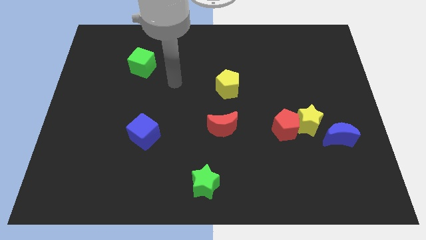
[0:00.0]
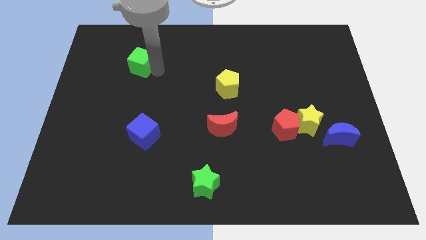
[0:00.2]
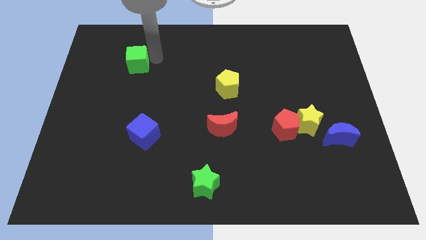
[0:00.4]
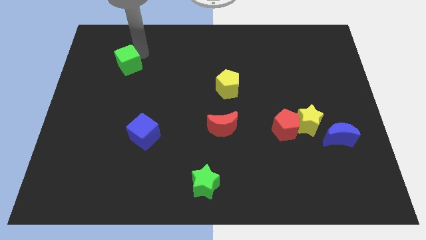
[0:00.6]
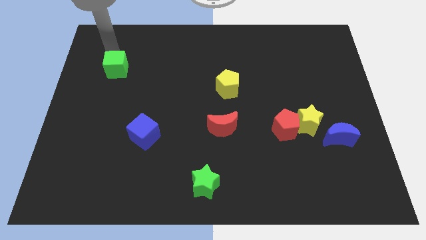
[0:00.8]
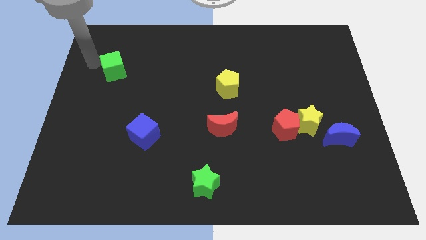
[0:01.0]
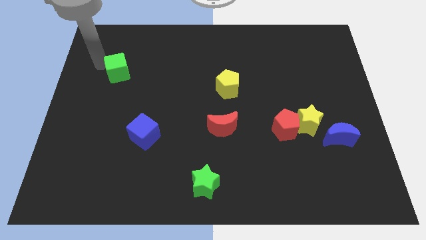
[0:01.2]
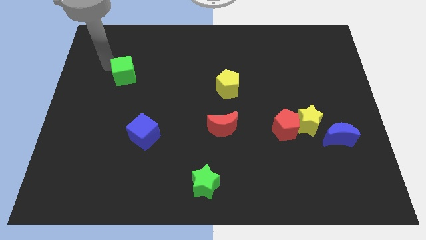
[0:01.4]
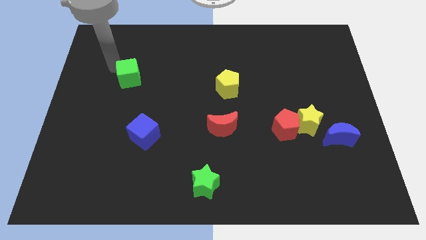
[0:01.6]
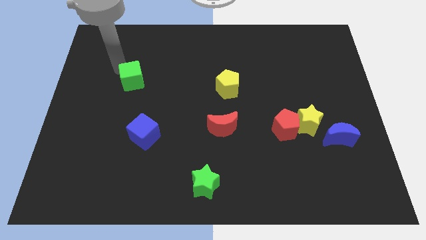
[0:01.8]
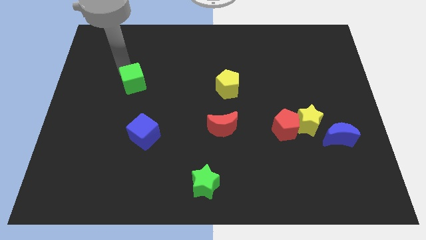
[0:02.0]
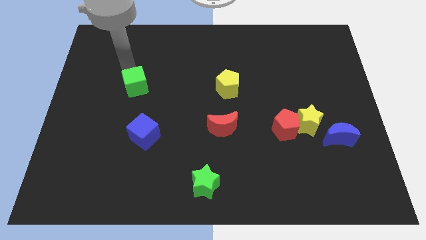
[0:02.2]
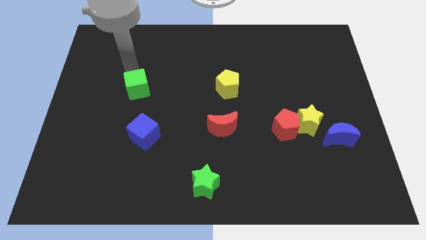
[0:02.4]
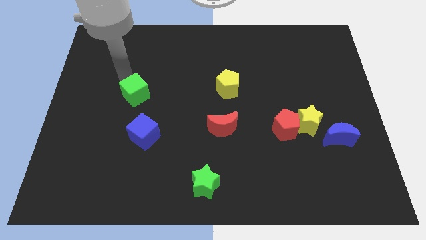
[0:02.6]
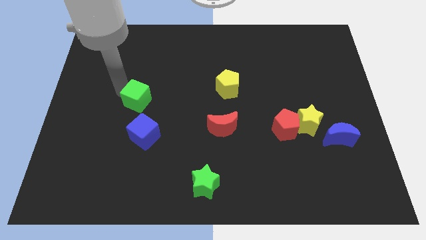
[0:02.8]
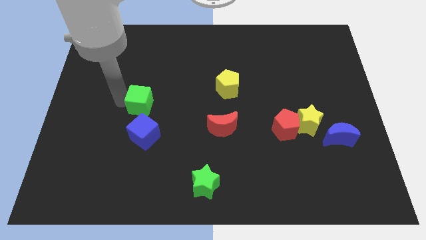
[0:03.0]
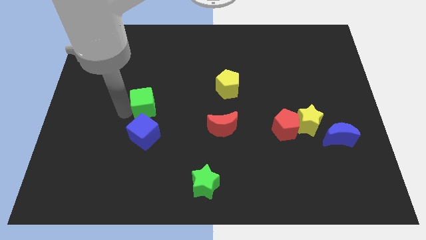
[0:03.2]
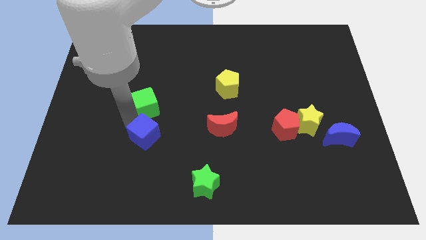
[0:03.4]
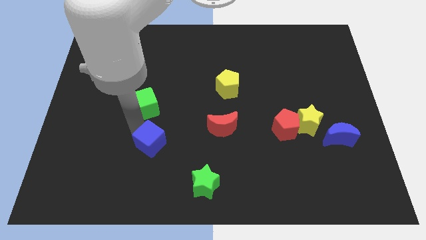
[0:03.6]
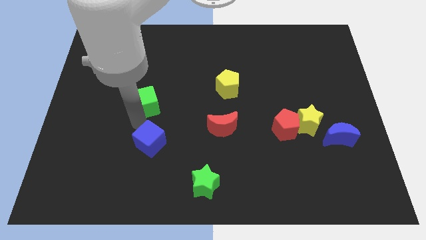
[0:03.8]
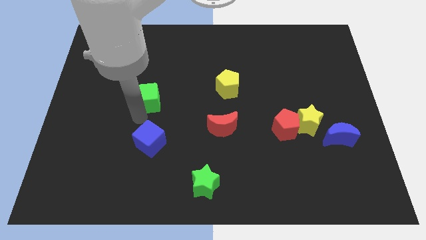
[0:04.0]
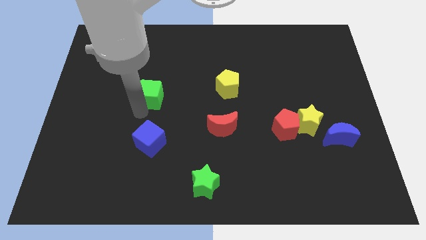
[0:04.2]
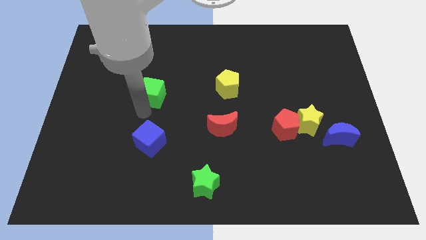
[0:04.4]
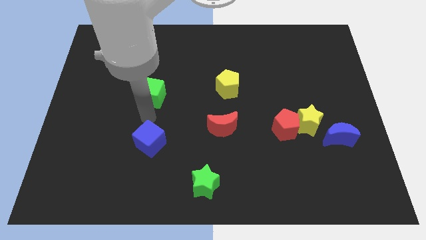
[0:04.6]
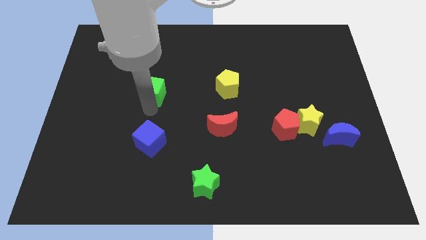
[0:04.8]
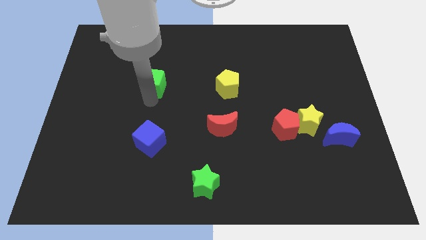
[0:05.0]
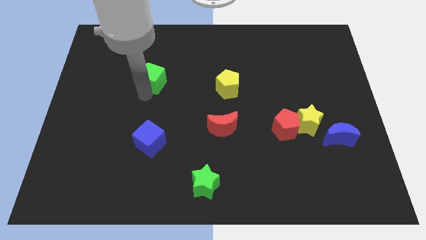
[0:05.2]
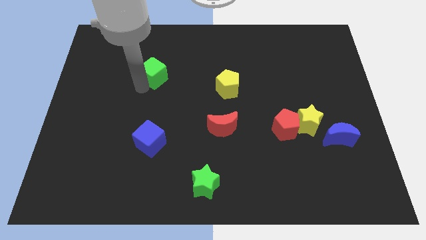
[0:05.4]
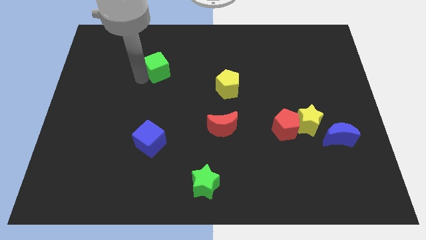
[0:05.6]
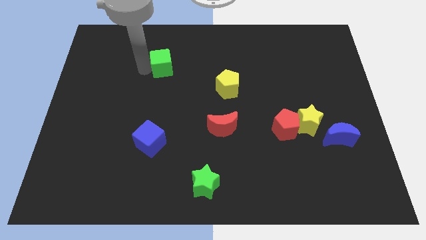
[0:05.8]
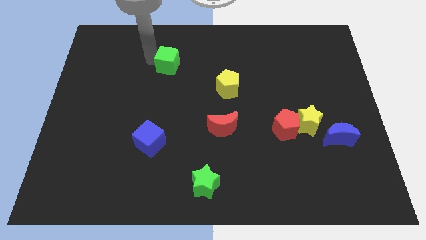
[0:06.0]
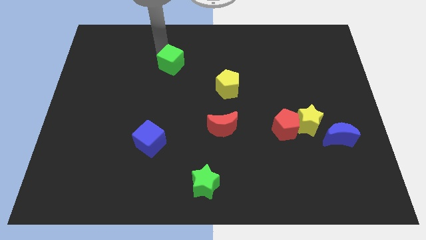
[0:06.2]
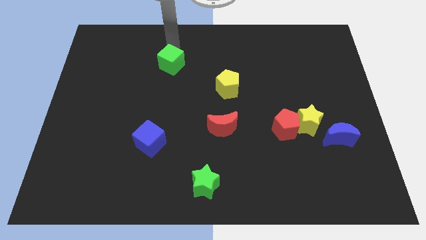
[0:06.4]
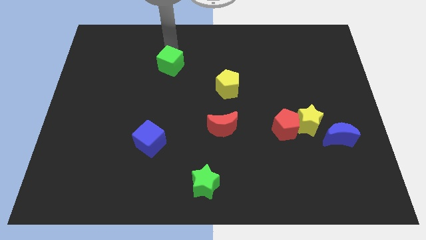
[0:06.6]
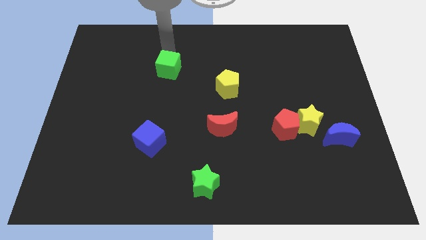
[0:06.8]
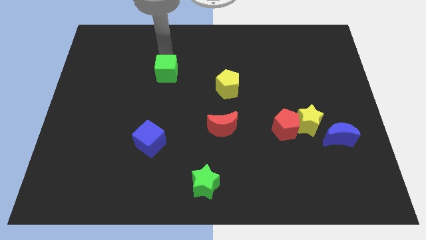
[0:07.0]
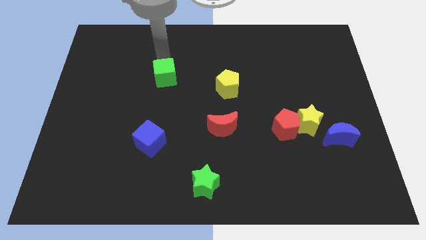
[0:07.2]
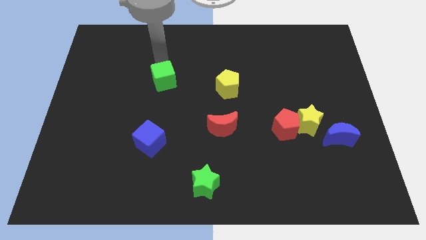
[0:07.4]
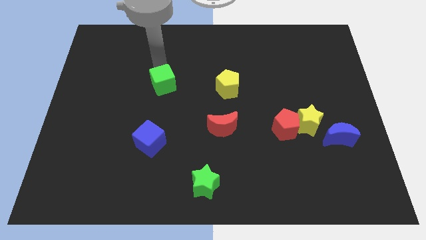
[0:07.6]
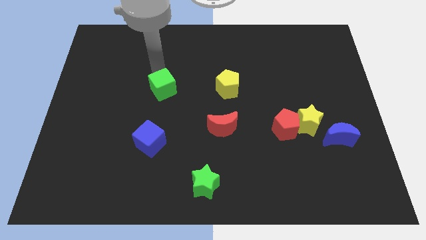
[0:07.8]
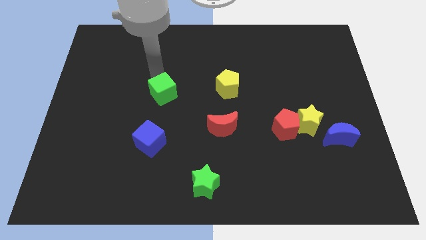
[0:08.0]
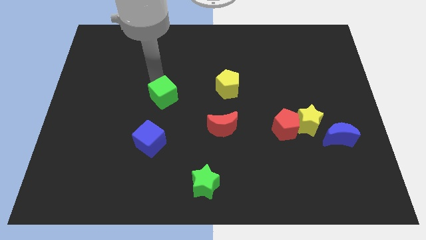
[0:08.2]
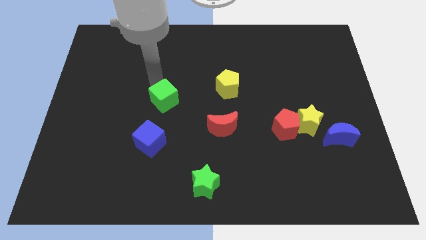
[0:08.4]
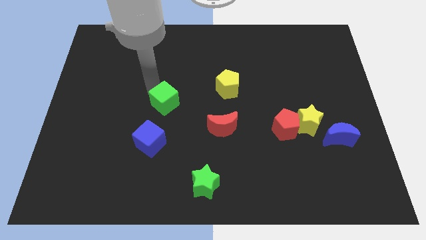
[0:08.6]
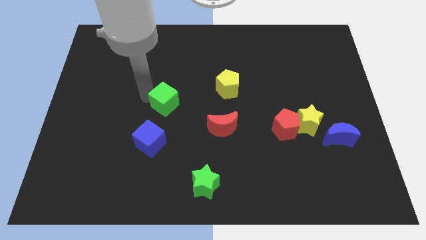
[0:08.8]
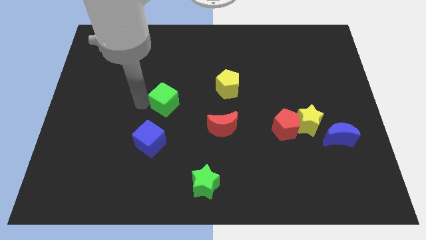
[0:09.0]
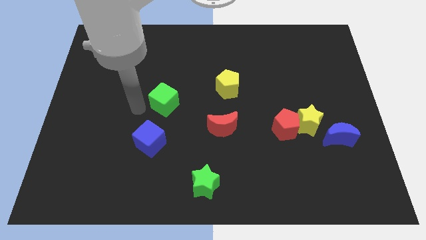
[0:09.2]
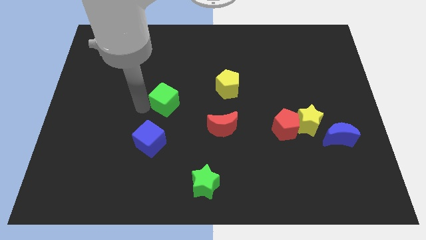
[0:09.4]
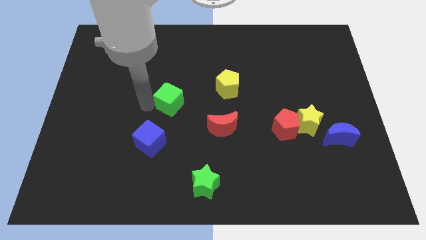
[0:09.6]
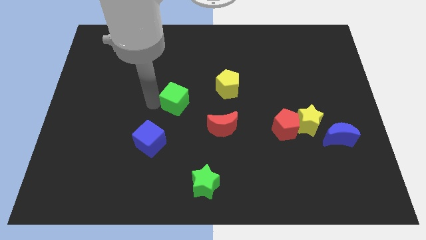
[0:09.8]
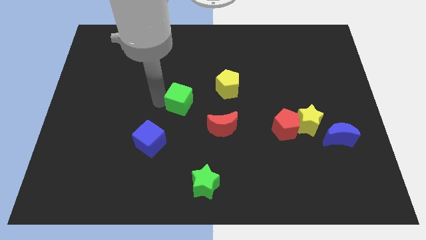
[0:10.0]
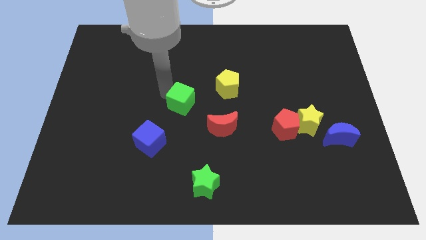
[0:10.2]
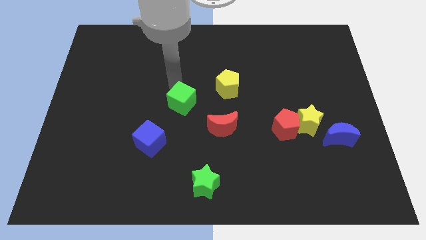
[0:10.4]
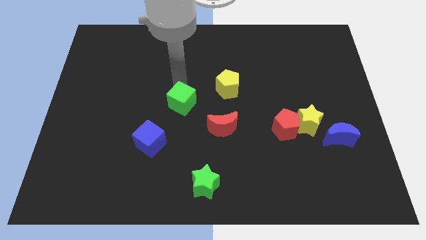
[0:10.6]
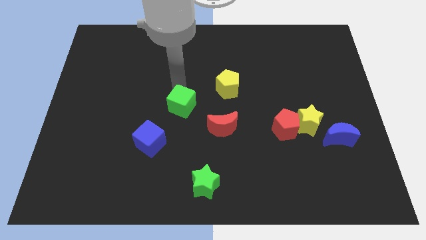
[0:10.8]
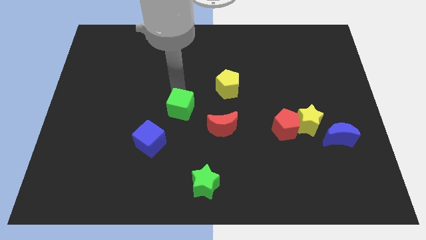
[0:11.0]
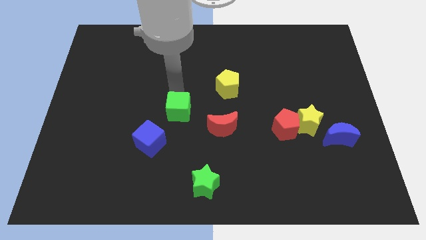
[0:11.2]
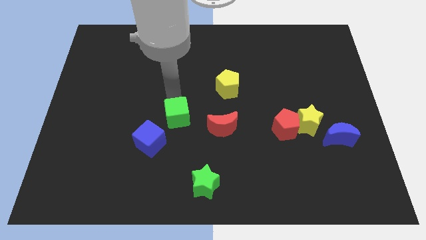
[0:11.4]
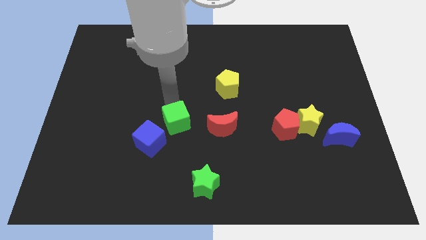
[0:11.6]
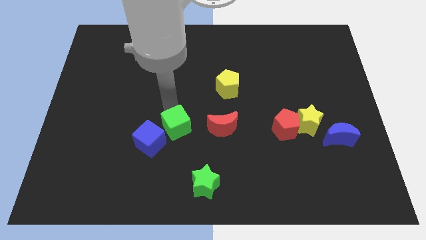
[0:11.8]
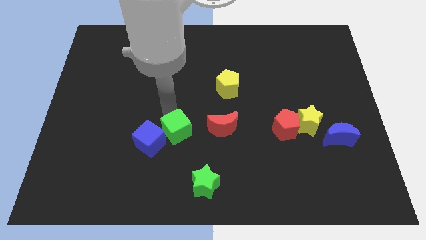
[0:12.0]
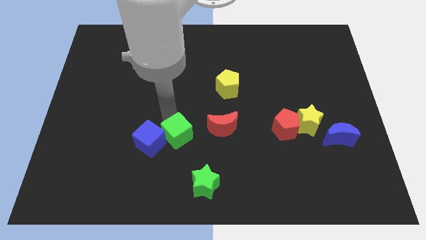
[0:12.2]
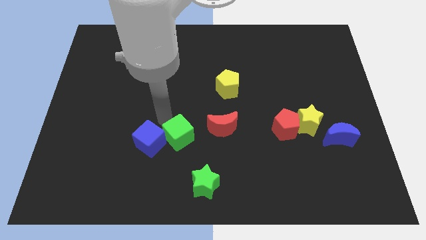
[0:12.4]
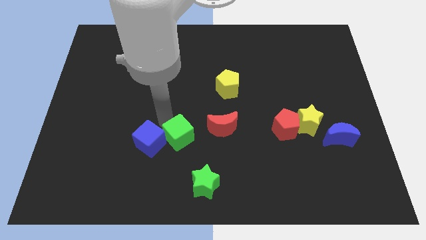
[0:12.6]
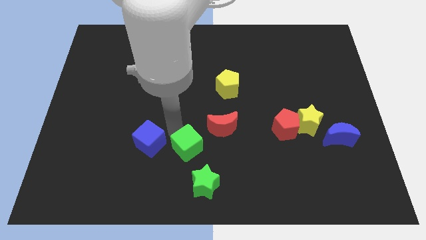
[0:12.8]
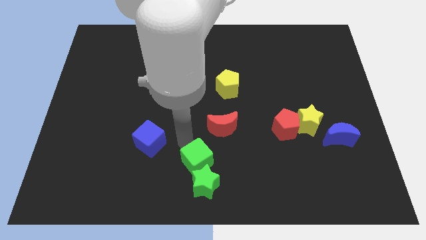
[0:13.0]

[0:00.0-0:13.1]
push the green cube towards the green star

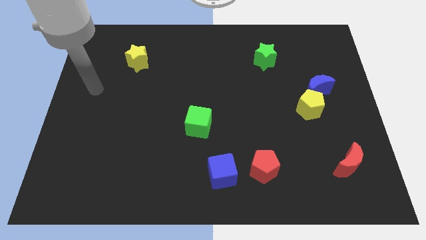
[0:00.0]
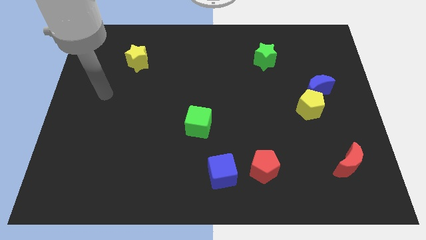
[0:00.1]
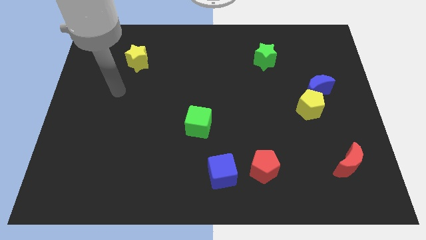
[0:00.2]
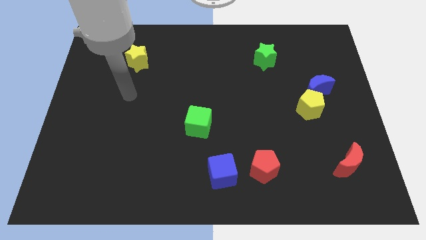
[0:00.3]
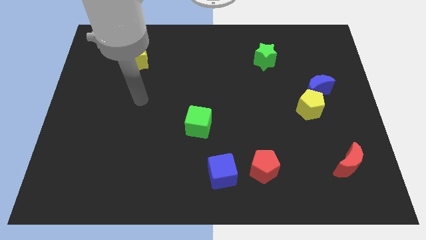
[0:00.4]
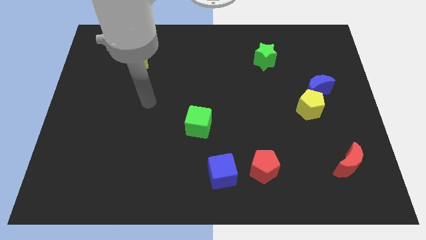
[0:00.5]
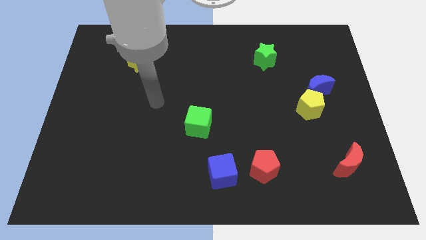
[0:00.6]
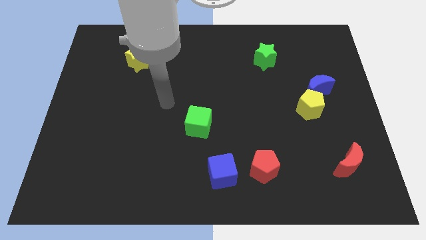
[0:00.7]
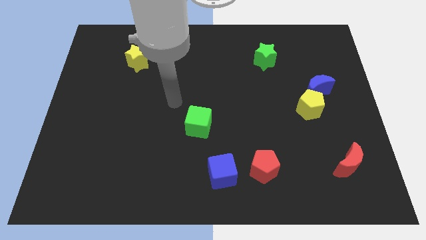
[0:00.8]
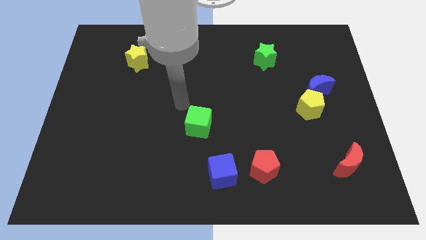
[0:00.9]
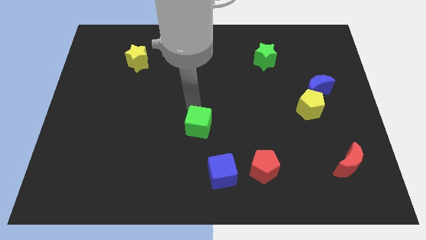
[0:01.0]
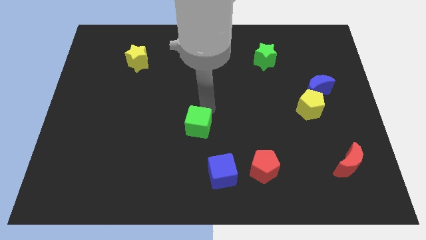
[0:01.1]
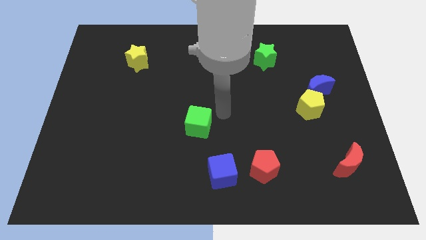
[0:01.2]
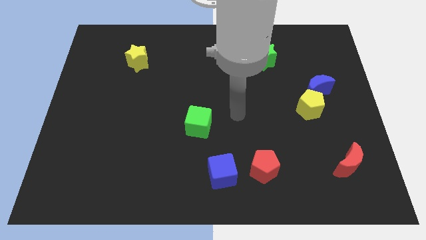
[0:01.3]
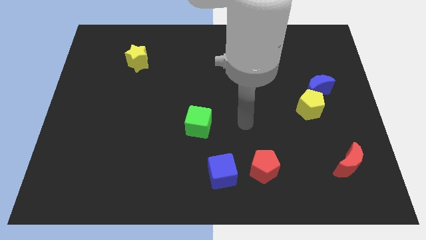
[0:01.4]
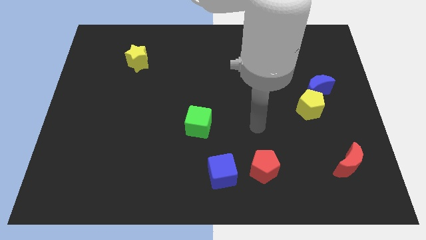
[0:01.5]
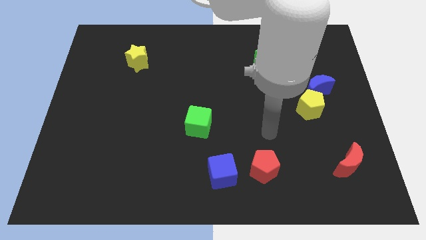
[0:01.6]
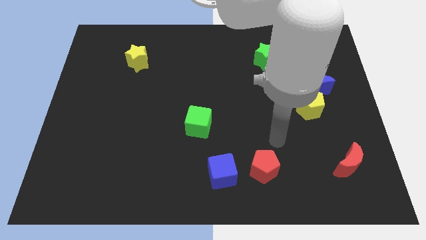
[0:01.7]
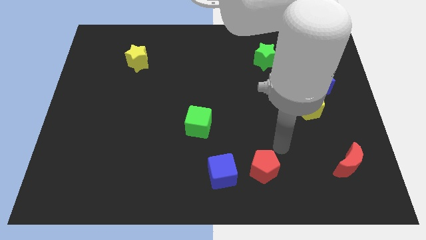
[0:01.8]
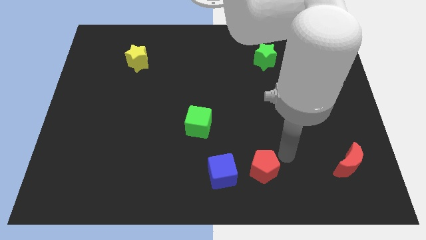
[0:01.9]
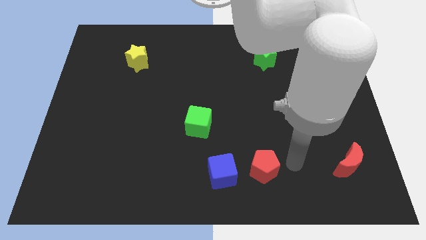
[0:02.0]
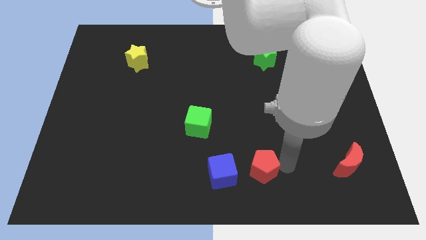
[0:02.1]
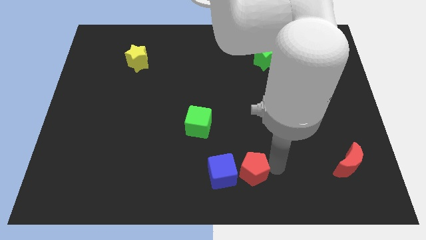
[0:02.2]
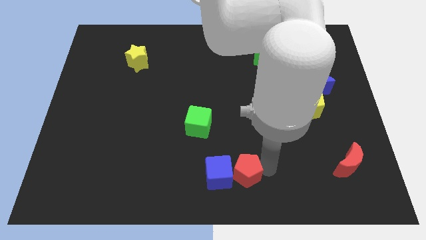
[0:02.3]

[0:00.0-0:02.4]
put the red pentagon towards the blue cube
